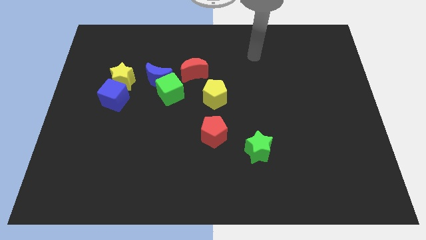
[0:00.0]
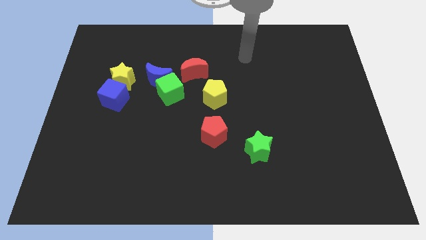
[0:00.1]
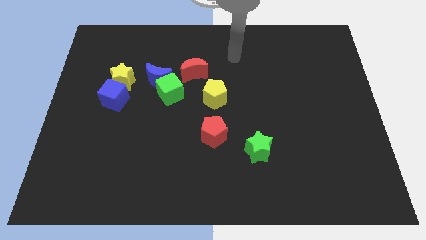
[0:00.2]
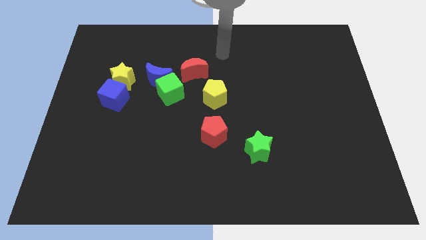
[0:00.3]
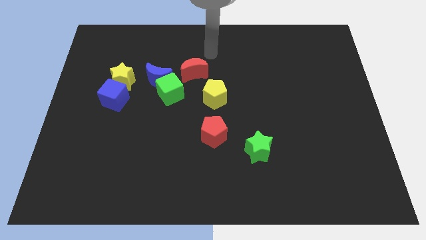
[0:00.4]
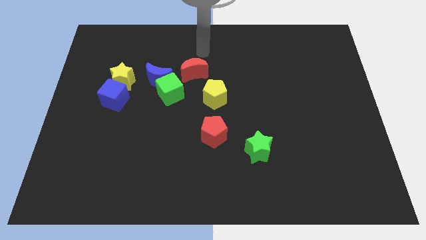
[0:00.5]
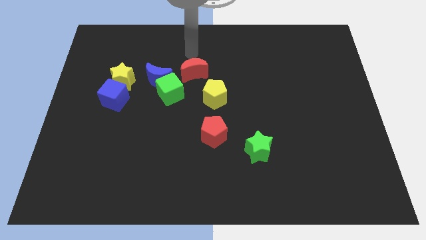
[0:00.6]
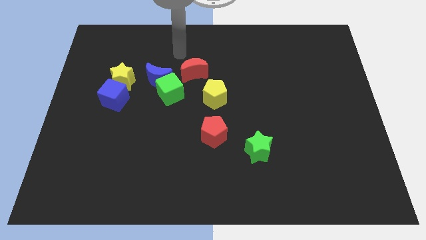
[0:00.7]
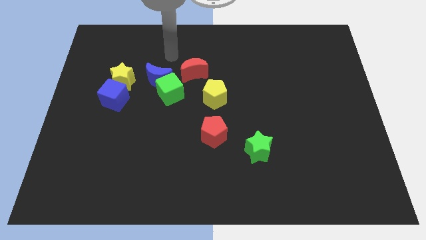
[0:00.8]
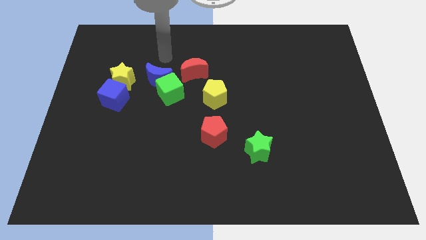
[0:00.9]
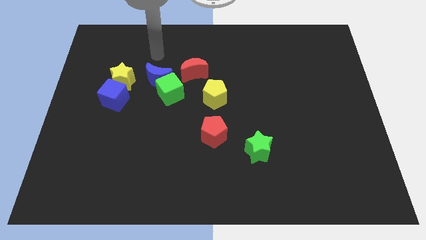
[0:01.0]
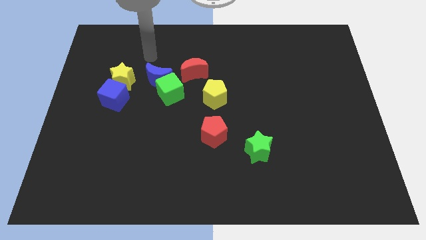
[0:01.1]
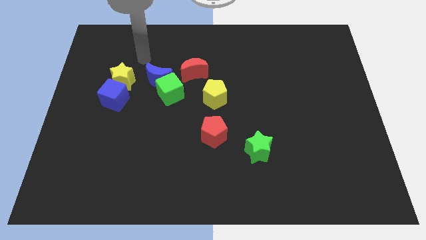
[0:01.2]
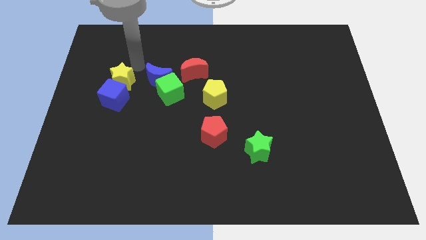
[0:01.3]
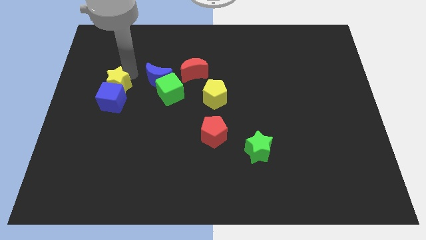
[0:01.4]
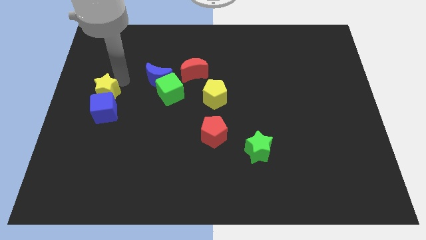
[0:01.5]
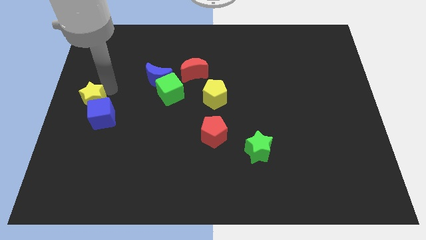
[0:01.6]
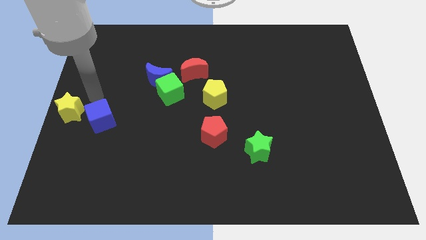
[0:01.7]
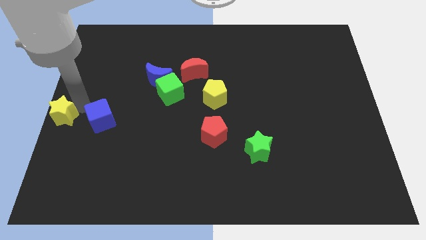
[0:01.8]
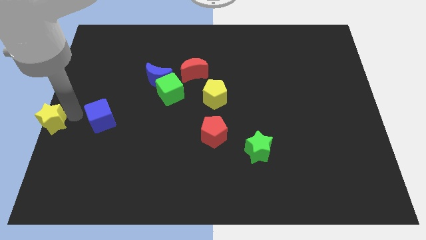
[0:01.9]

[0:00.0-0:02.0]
pull the blue cube apart from the yellow star

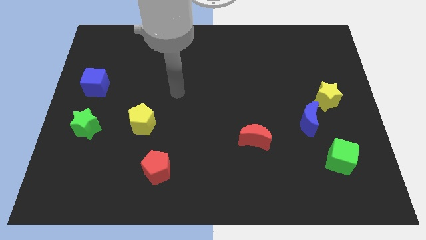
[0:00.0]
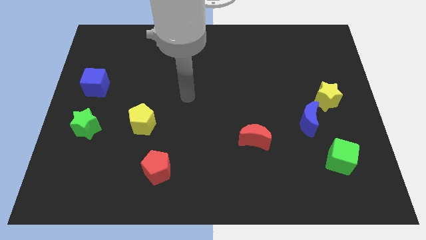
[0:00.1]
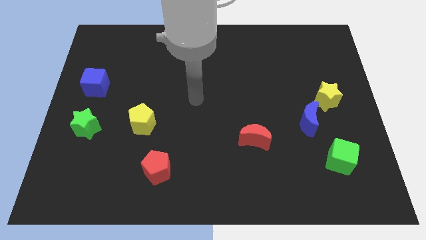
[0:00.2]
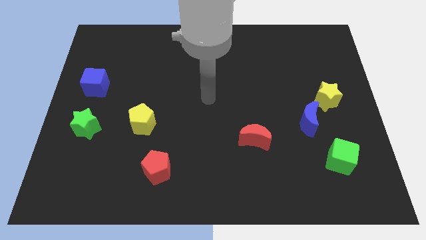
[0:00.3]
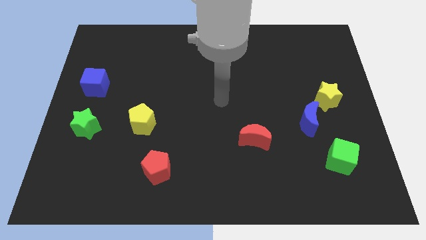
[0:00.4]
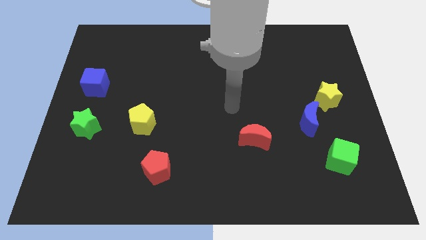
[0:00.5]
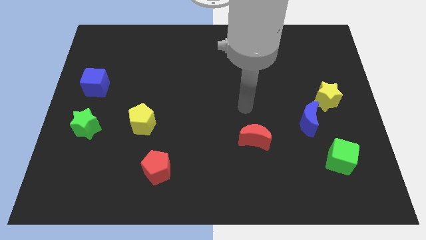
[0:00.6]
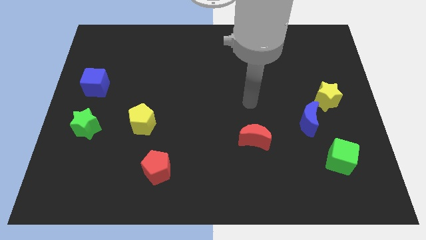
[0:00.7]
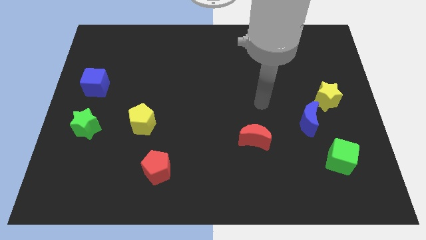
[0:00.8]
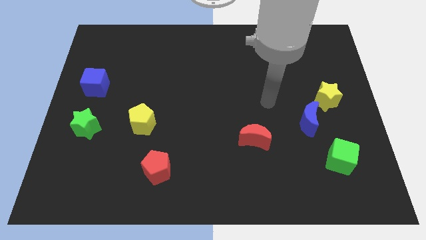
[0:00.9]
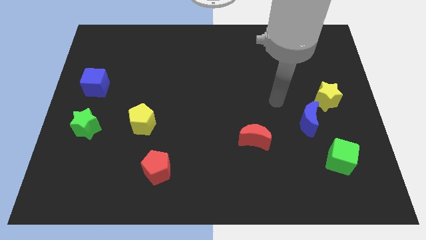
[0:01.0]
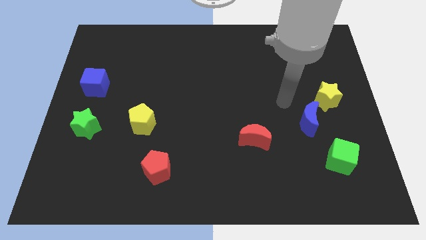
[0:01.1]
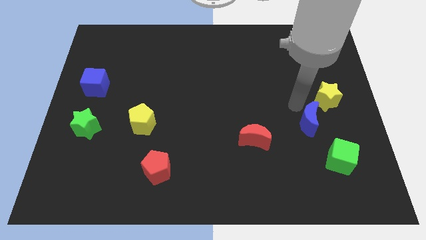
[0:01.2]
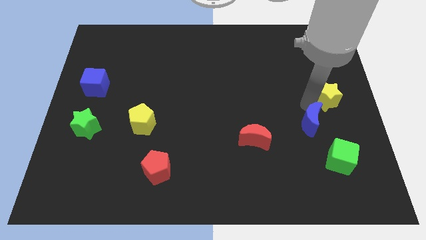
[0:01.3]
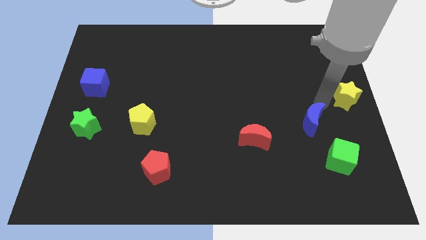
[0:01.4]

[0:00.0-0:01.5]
separate the blue moon from the yellow star

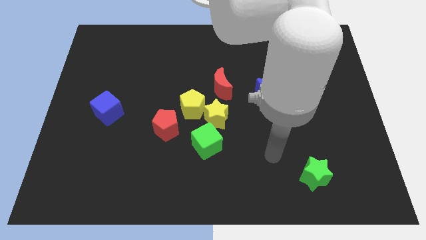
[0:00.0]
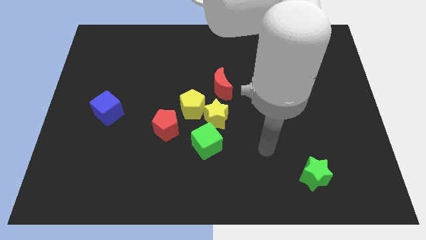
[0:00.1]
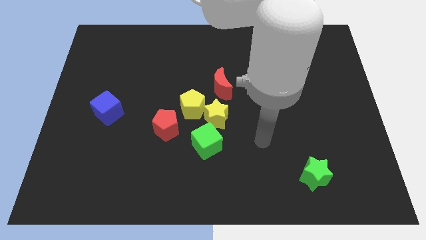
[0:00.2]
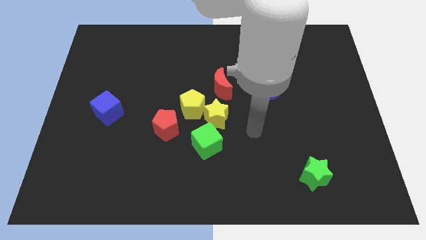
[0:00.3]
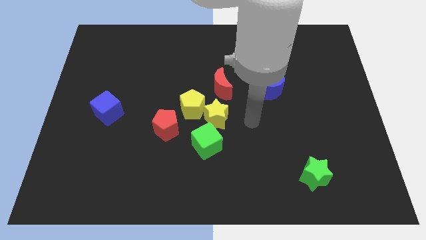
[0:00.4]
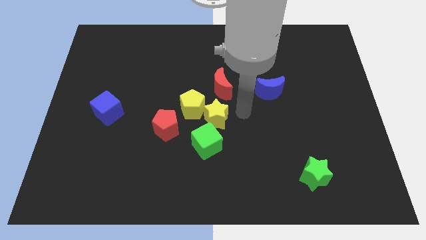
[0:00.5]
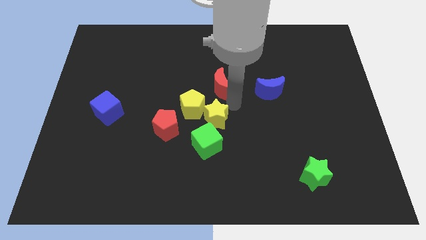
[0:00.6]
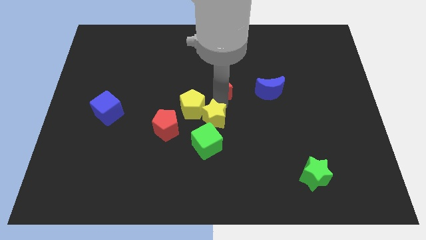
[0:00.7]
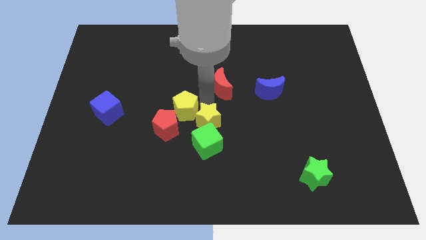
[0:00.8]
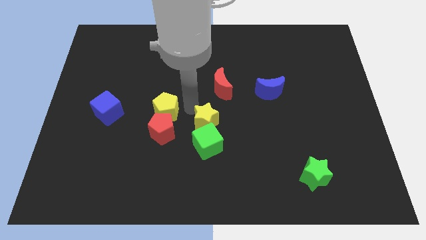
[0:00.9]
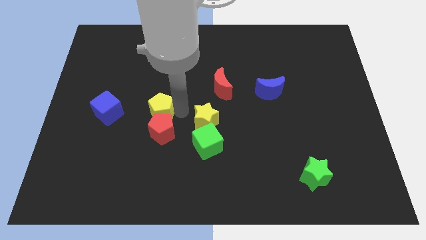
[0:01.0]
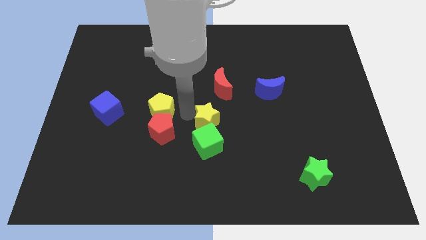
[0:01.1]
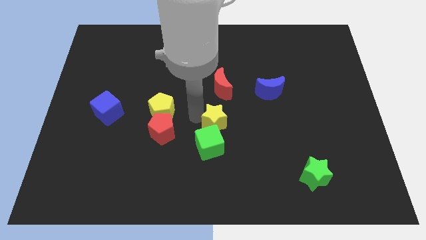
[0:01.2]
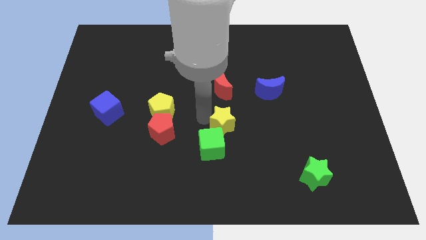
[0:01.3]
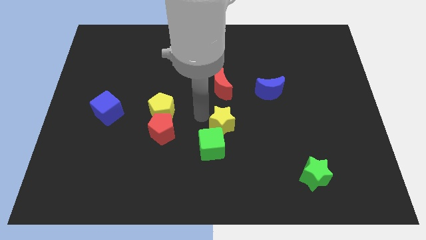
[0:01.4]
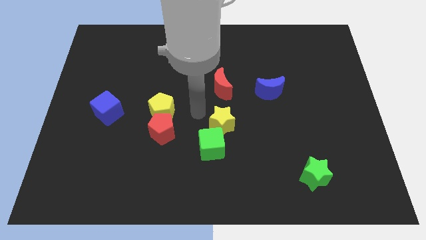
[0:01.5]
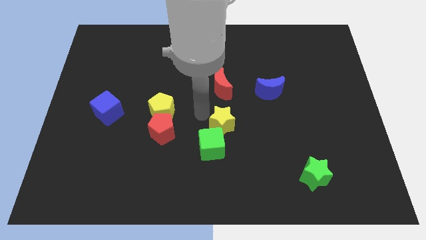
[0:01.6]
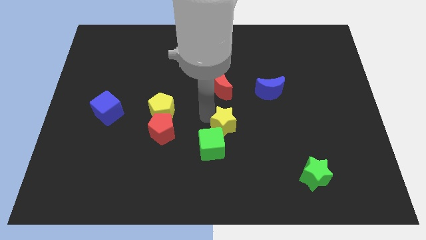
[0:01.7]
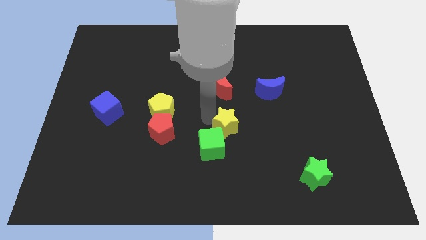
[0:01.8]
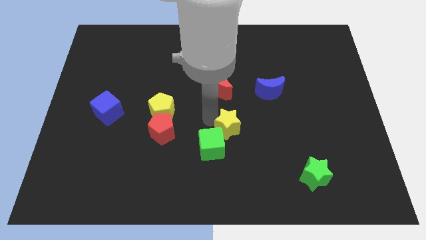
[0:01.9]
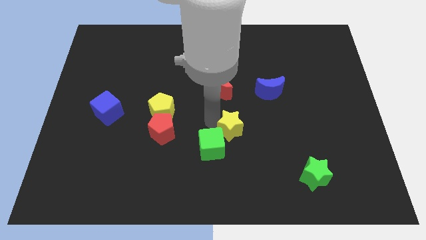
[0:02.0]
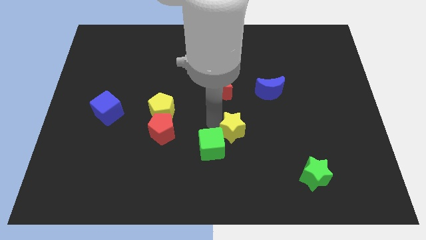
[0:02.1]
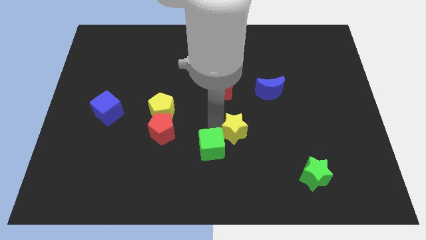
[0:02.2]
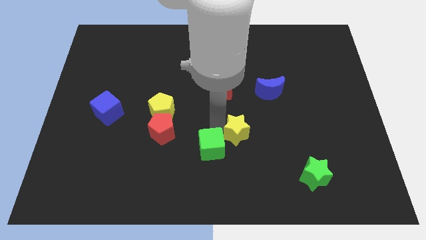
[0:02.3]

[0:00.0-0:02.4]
pull the yellow star apart from the yellow pentagon, green cube, and red moon

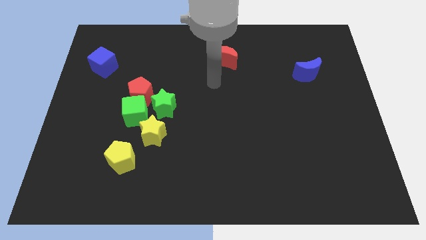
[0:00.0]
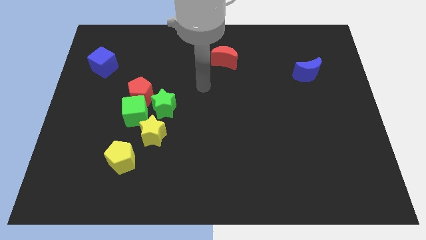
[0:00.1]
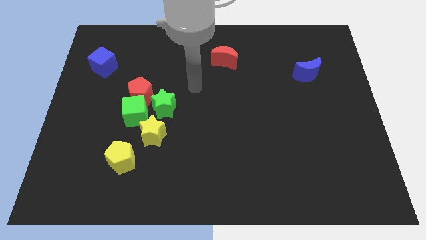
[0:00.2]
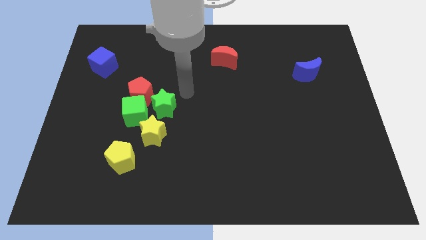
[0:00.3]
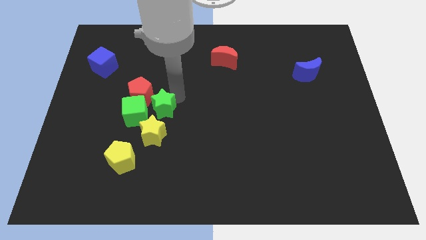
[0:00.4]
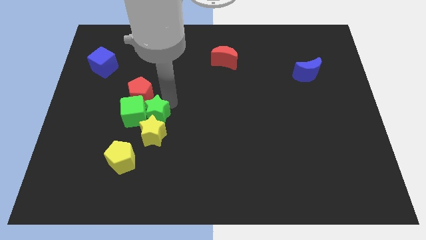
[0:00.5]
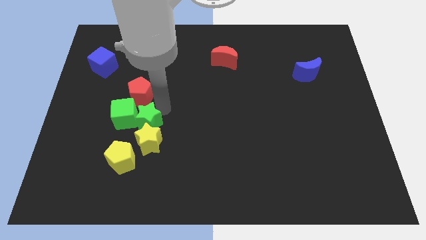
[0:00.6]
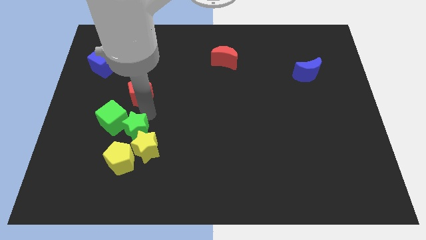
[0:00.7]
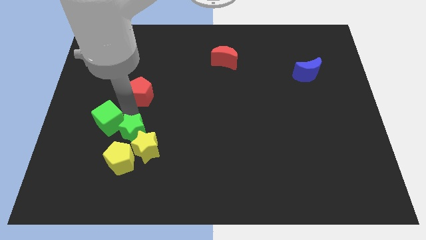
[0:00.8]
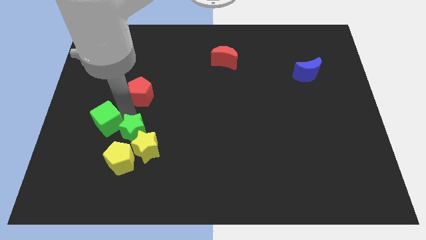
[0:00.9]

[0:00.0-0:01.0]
pull the red pentagon apart from the green cube and green star

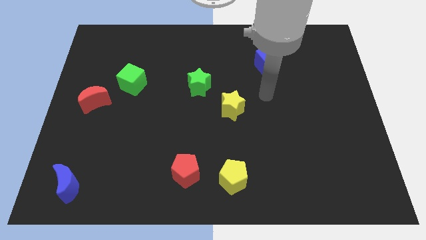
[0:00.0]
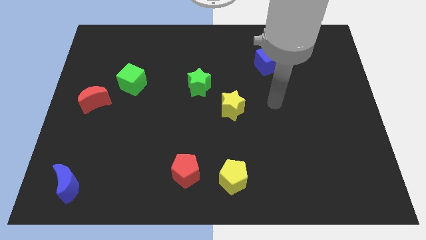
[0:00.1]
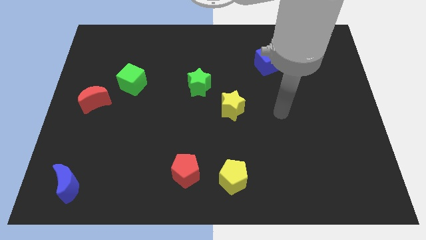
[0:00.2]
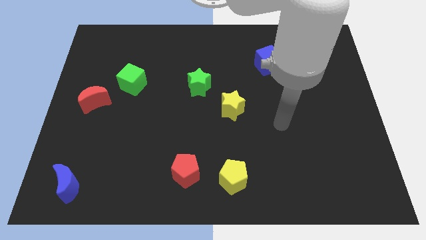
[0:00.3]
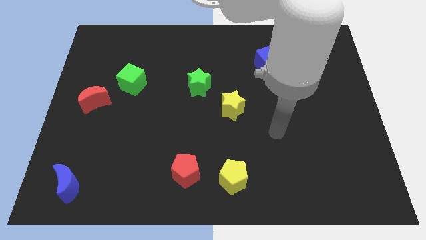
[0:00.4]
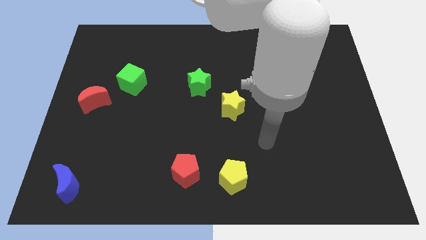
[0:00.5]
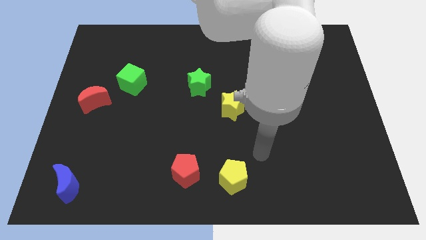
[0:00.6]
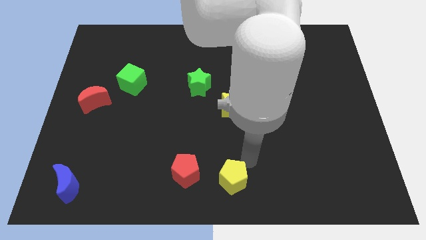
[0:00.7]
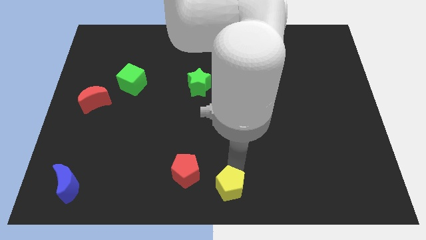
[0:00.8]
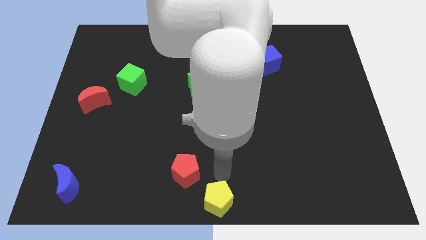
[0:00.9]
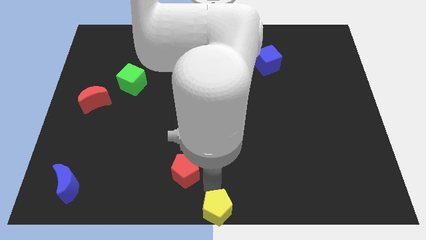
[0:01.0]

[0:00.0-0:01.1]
move the red pentagon away from the yellow pentagon

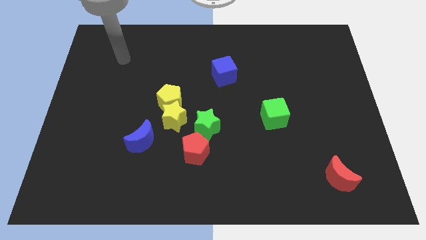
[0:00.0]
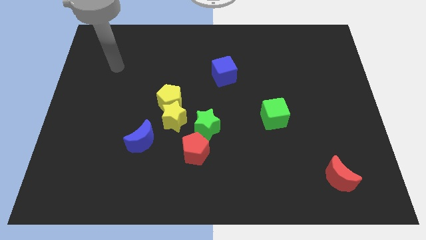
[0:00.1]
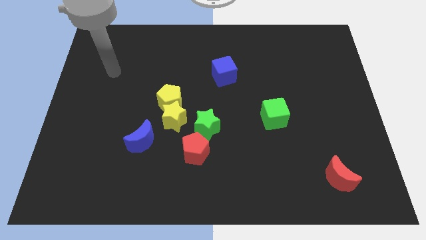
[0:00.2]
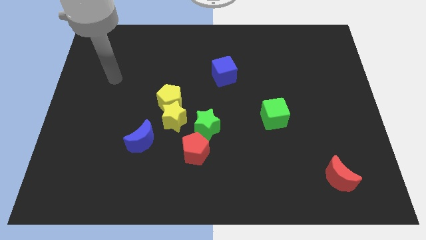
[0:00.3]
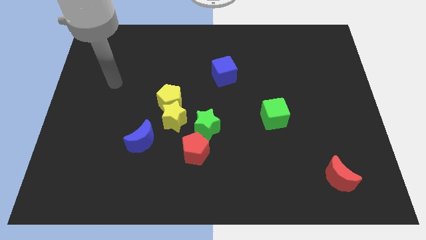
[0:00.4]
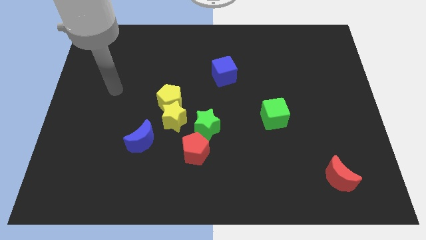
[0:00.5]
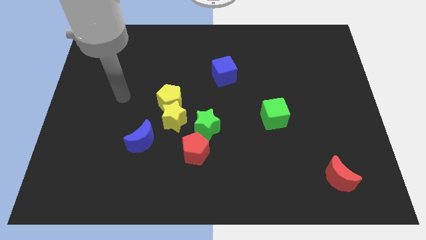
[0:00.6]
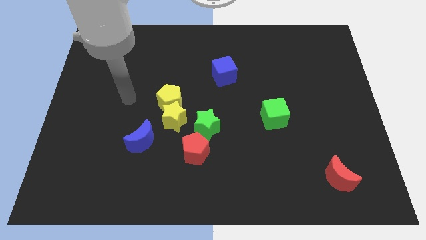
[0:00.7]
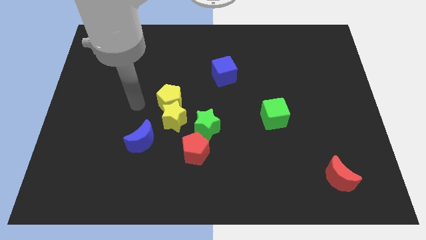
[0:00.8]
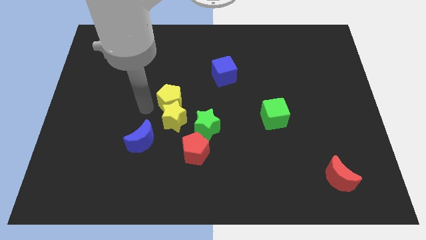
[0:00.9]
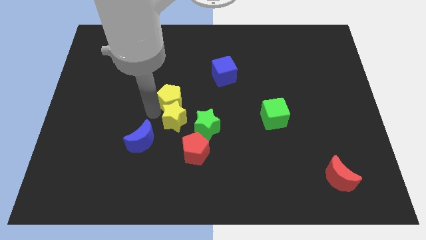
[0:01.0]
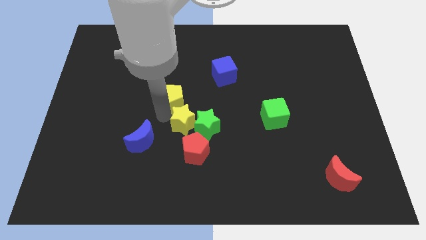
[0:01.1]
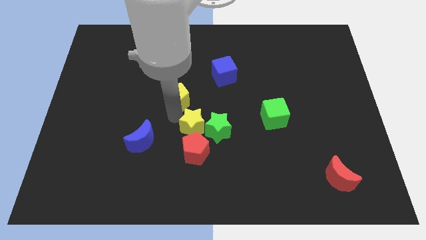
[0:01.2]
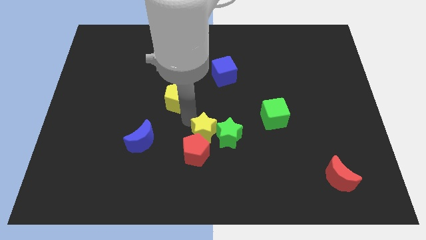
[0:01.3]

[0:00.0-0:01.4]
pull the yellow pentagon apart from the yellow star

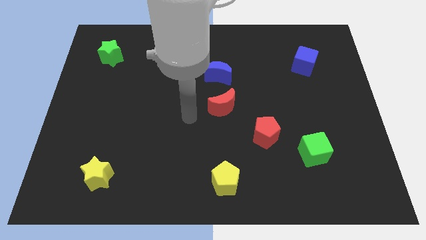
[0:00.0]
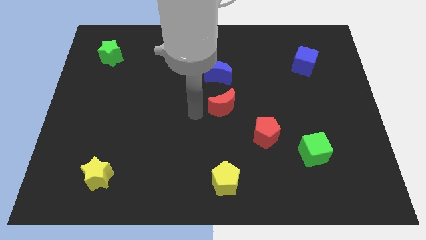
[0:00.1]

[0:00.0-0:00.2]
pull the red moon apart from the blue moon
